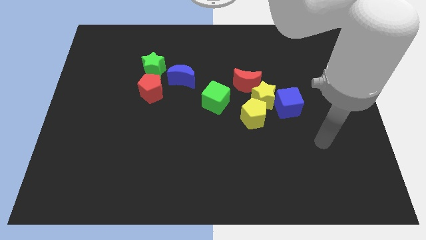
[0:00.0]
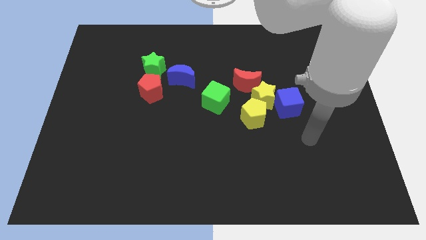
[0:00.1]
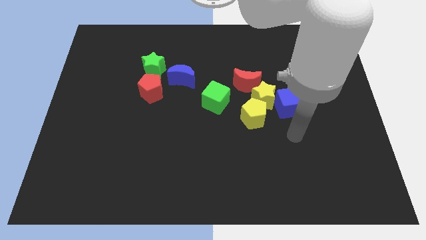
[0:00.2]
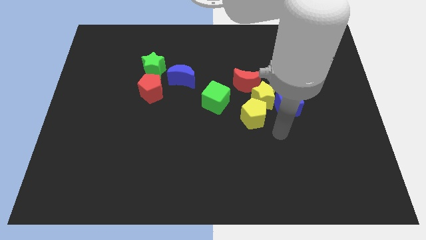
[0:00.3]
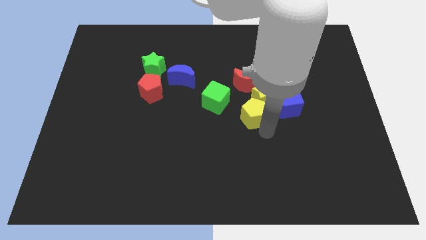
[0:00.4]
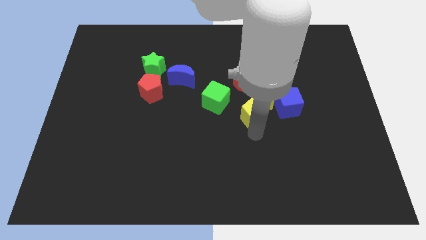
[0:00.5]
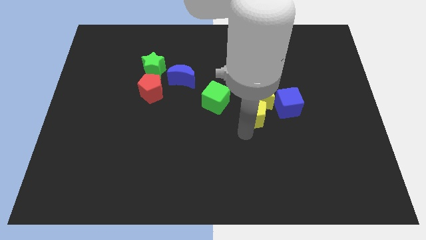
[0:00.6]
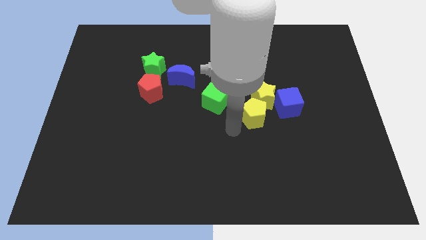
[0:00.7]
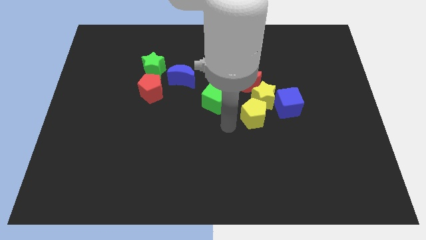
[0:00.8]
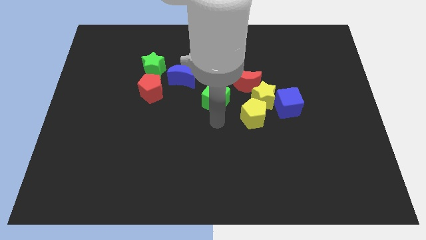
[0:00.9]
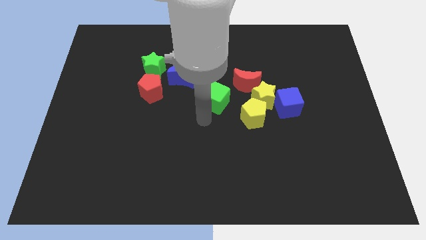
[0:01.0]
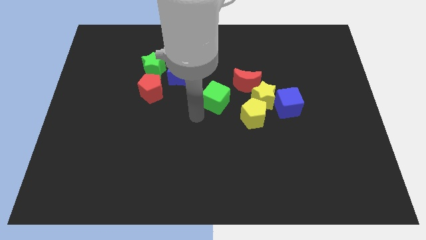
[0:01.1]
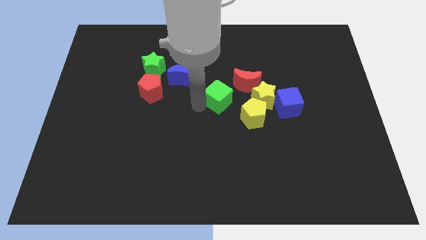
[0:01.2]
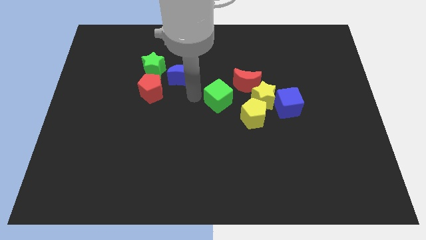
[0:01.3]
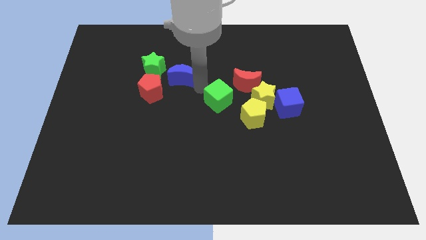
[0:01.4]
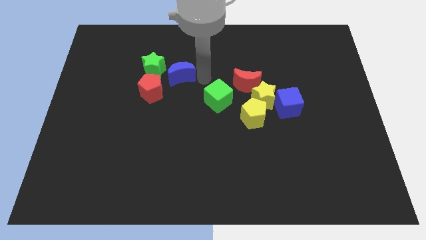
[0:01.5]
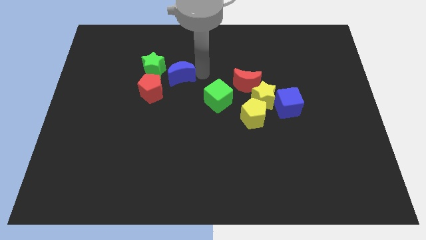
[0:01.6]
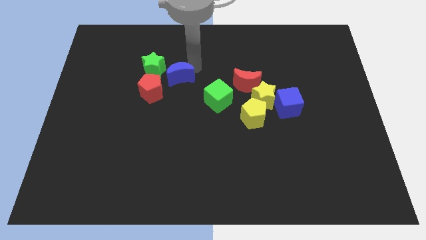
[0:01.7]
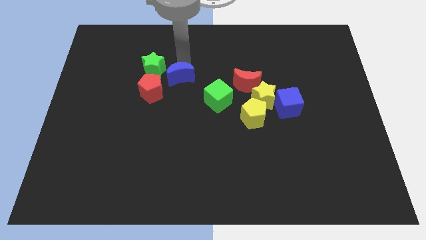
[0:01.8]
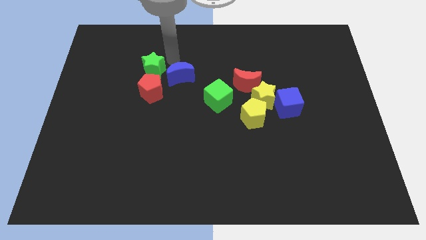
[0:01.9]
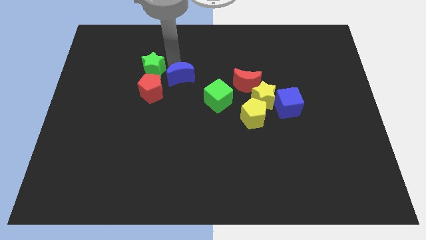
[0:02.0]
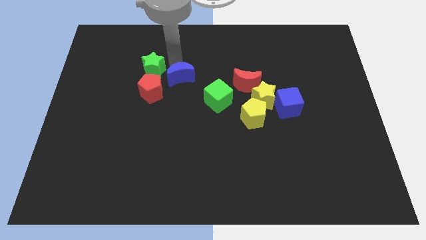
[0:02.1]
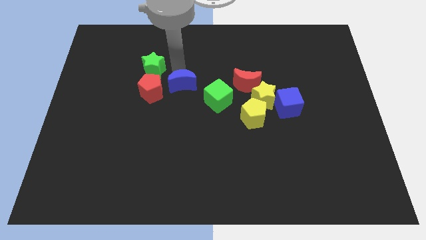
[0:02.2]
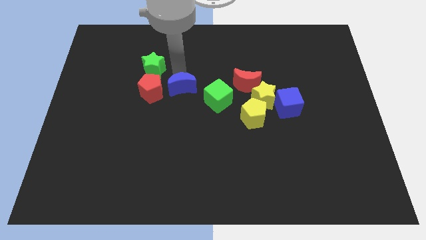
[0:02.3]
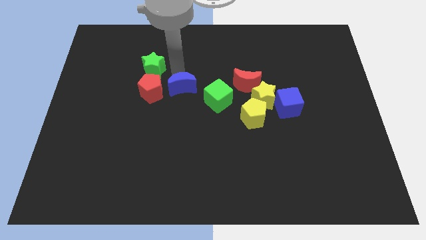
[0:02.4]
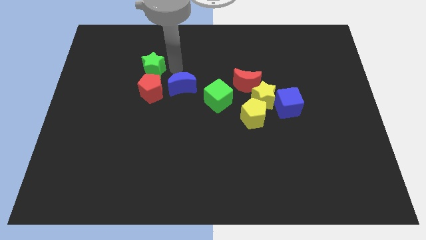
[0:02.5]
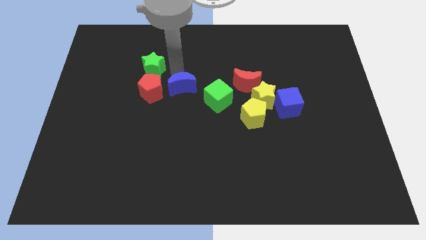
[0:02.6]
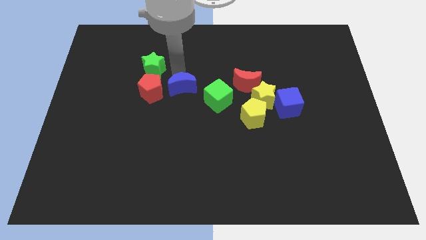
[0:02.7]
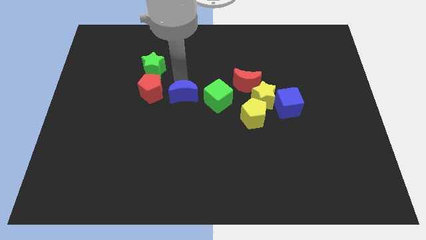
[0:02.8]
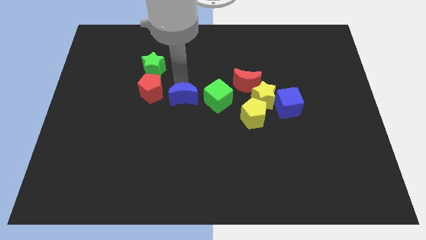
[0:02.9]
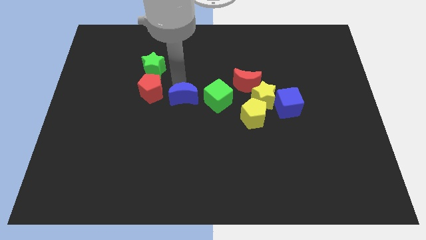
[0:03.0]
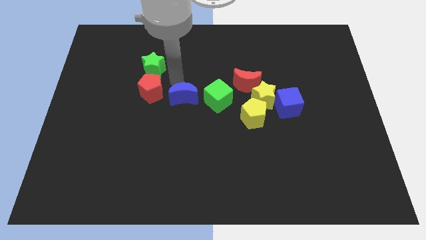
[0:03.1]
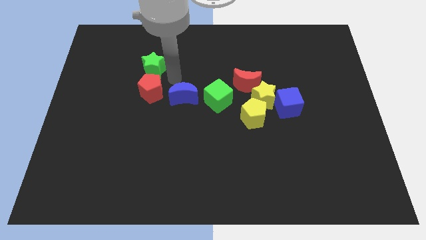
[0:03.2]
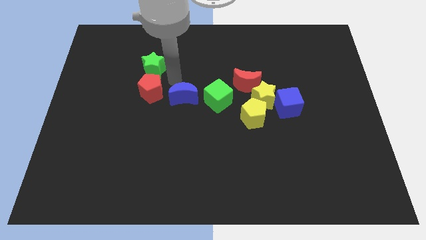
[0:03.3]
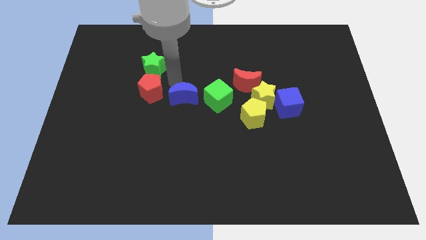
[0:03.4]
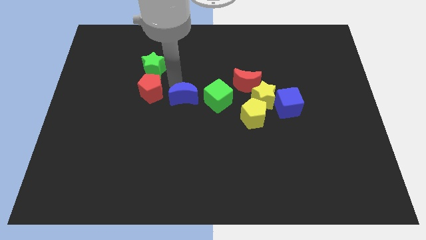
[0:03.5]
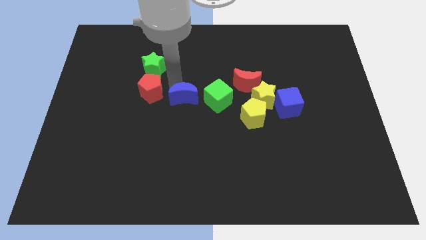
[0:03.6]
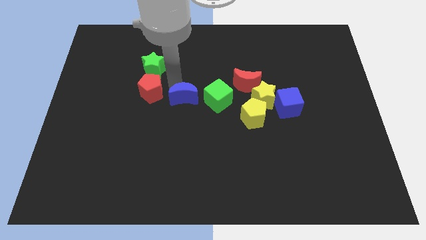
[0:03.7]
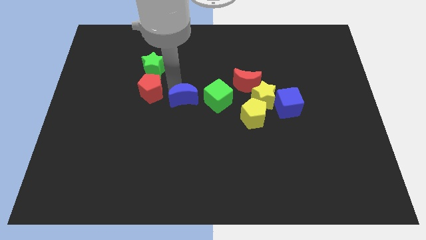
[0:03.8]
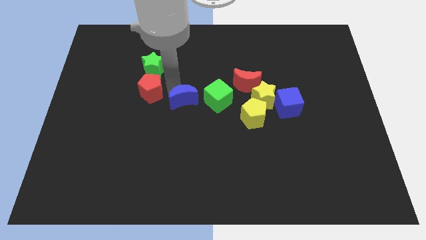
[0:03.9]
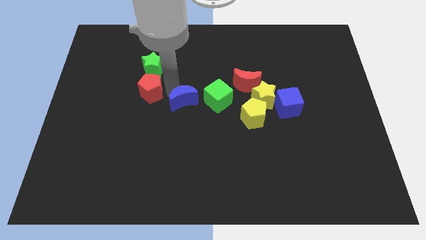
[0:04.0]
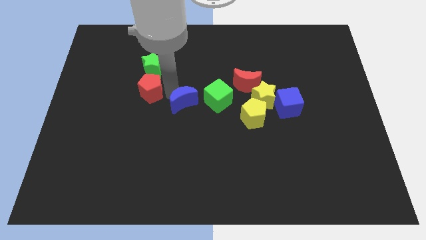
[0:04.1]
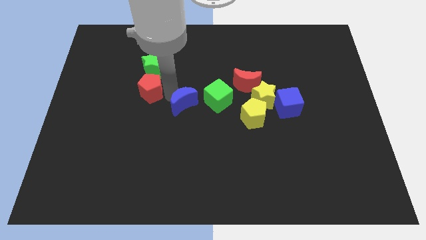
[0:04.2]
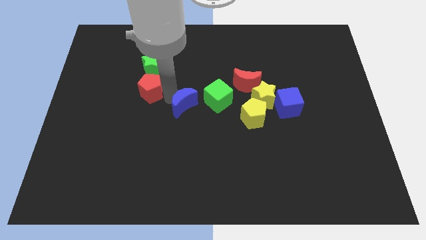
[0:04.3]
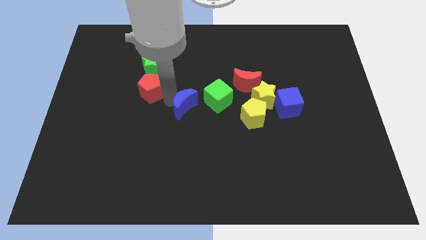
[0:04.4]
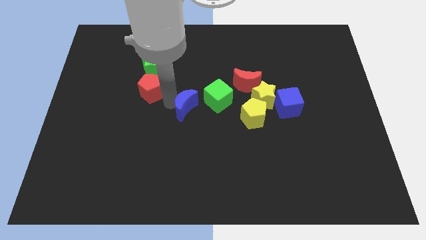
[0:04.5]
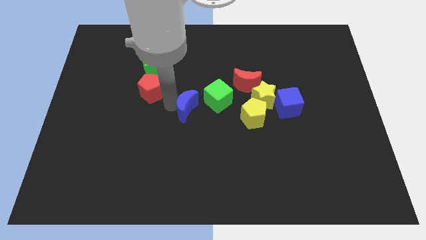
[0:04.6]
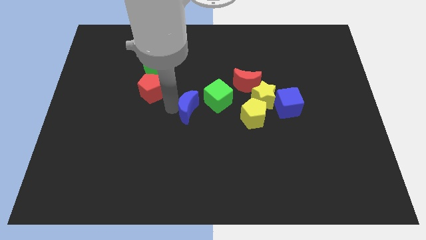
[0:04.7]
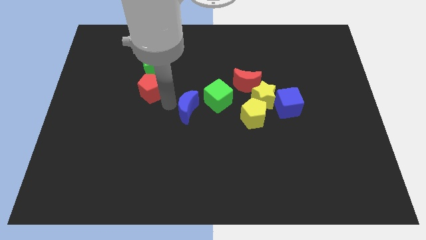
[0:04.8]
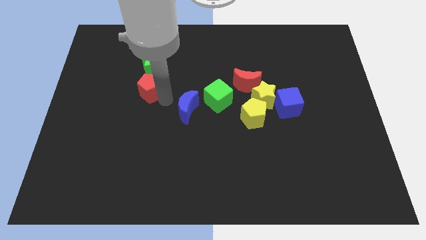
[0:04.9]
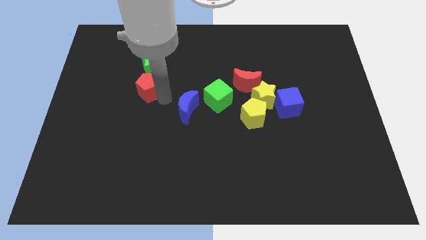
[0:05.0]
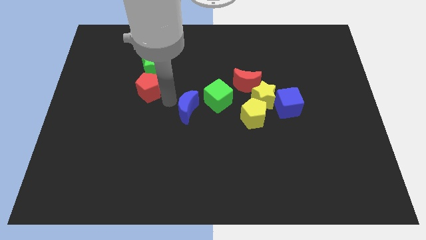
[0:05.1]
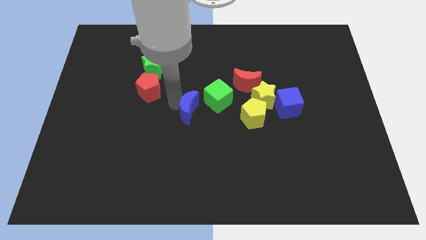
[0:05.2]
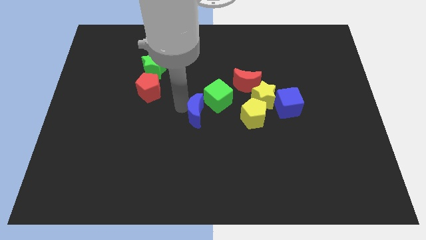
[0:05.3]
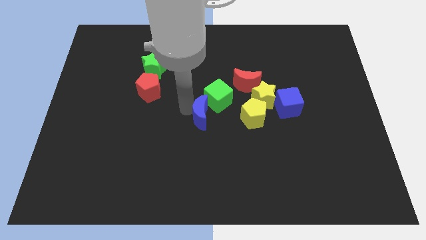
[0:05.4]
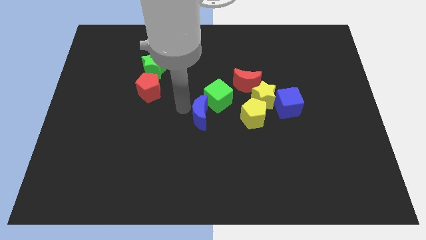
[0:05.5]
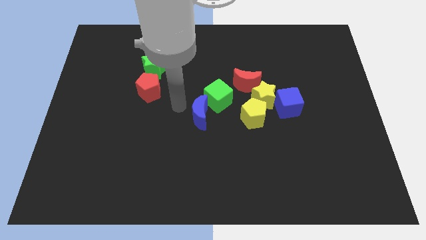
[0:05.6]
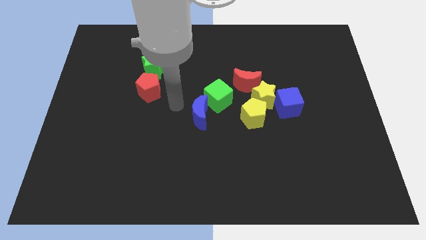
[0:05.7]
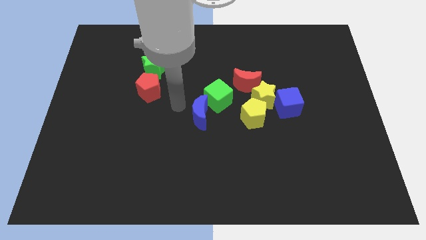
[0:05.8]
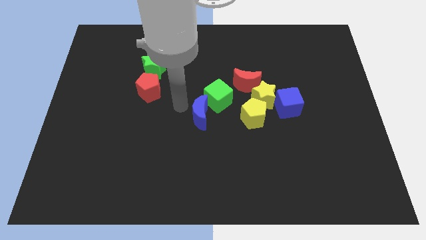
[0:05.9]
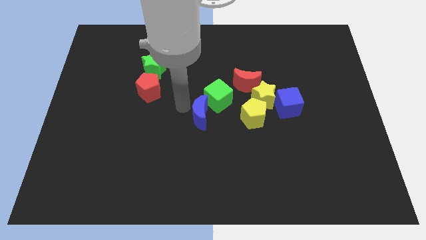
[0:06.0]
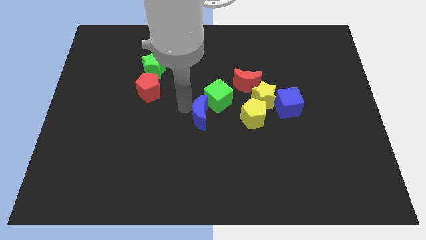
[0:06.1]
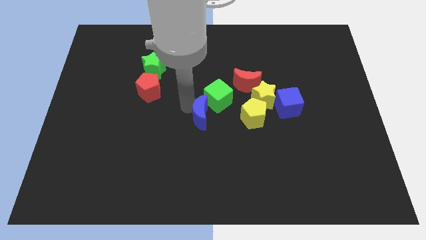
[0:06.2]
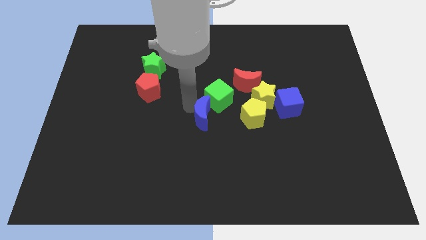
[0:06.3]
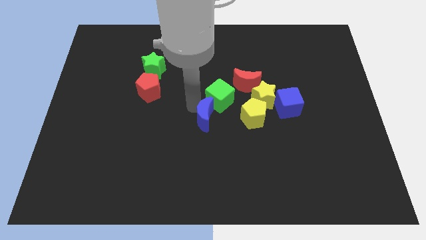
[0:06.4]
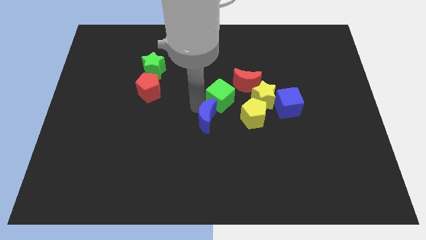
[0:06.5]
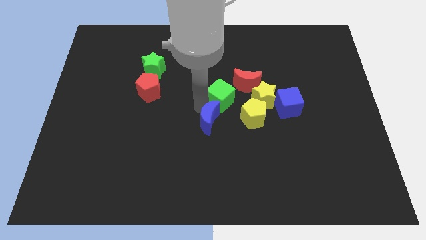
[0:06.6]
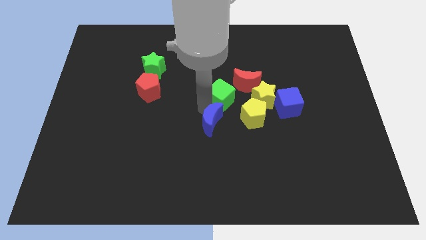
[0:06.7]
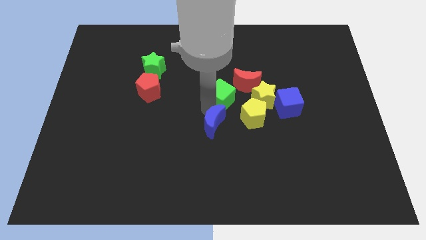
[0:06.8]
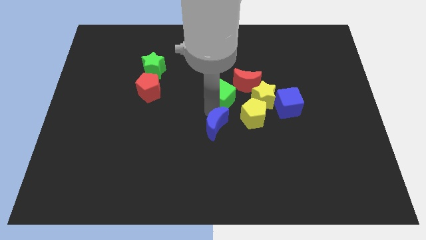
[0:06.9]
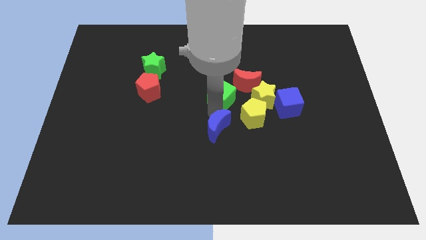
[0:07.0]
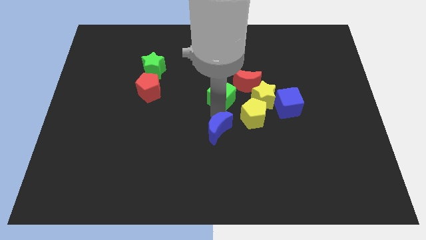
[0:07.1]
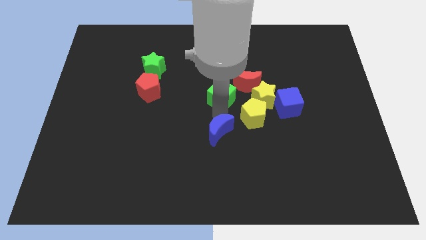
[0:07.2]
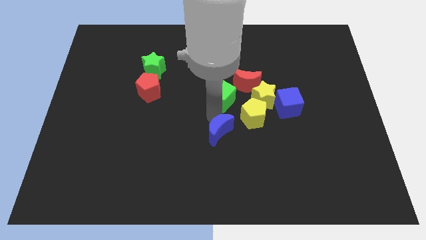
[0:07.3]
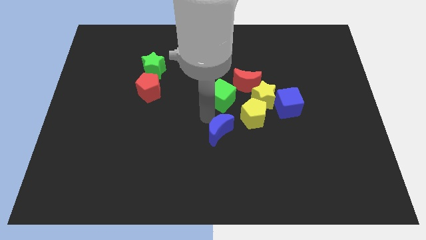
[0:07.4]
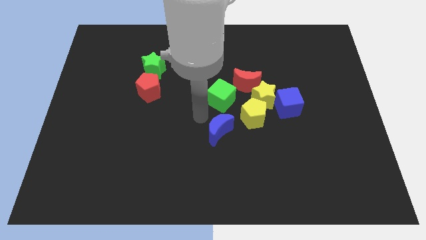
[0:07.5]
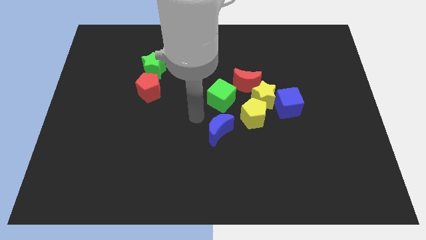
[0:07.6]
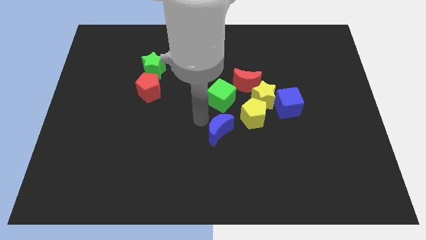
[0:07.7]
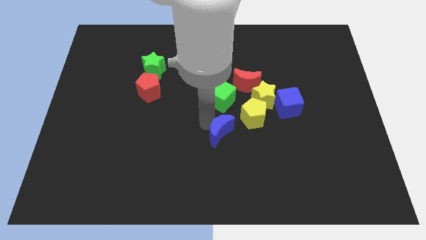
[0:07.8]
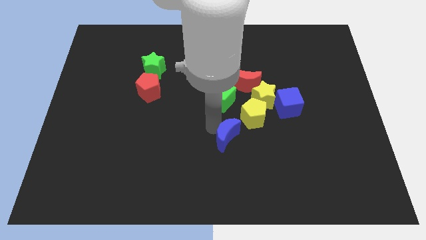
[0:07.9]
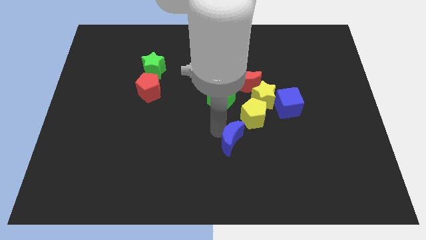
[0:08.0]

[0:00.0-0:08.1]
push the blue moon down and then right

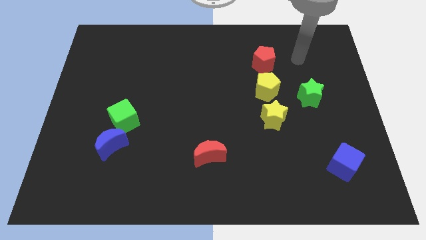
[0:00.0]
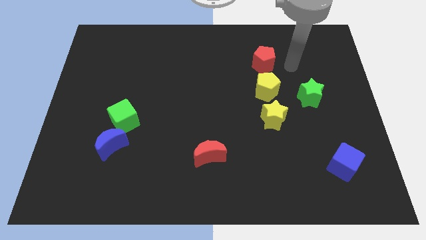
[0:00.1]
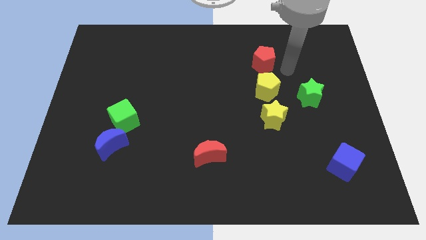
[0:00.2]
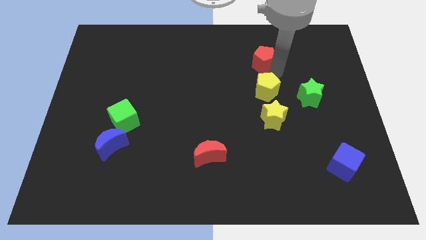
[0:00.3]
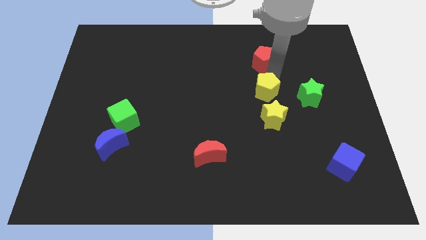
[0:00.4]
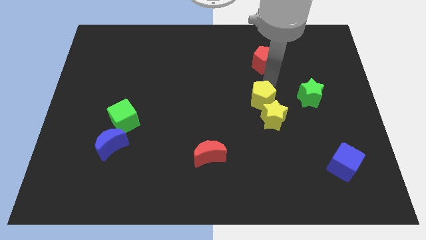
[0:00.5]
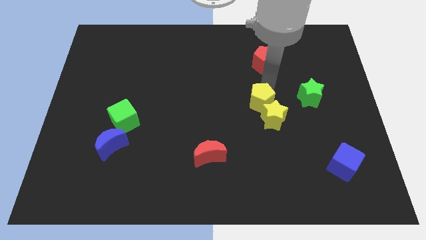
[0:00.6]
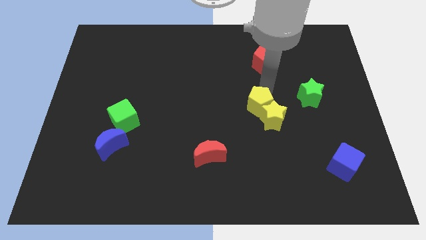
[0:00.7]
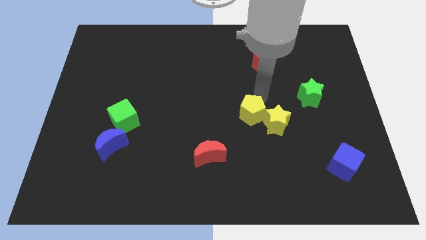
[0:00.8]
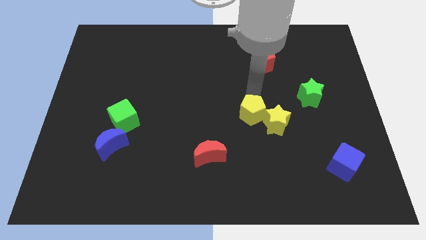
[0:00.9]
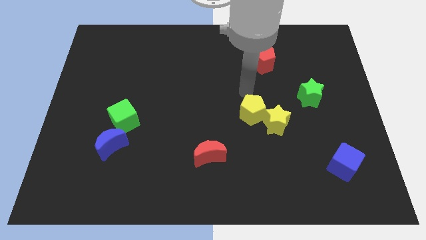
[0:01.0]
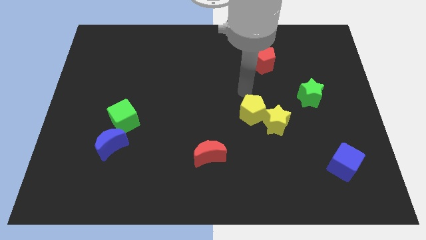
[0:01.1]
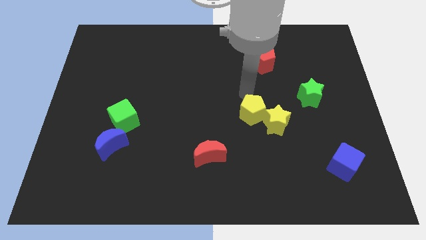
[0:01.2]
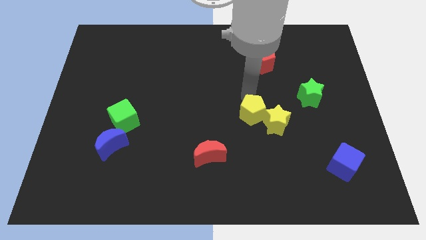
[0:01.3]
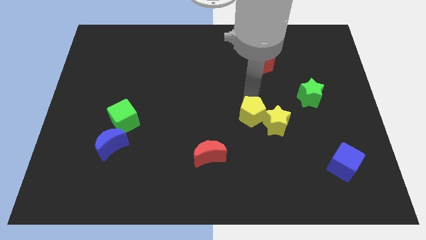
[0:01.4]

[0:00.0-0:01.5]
move the yellow pentagon downwards slightly
